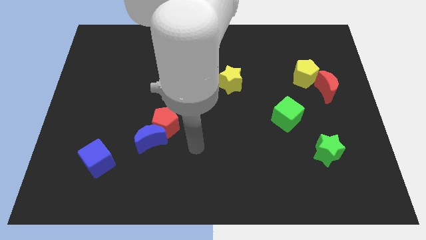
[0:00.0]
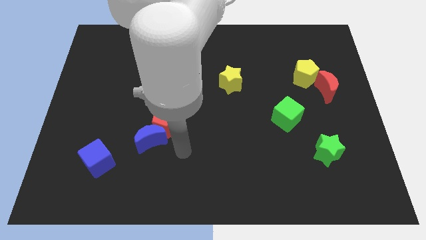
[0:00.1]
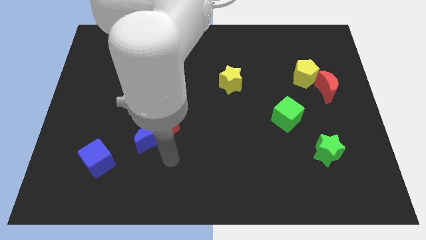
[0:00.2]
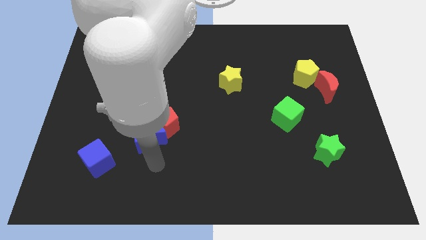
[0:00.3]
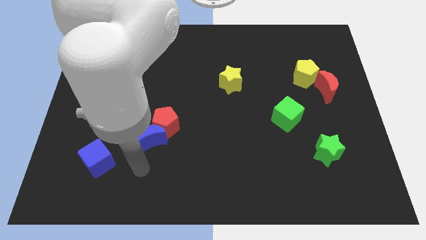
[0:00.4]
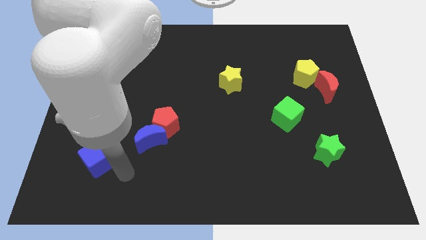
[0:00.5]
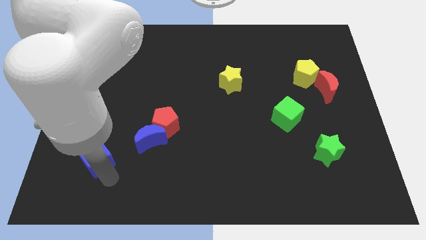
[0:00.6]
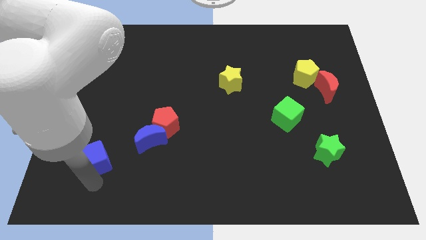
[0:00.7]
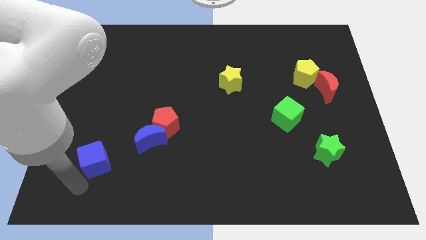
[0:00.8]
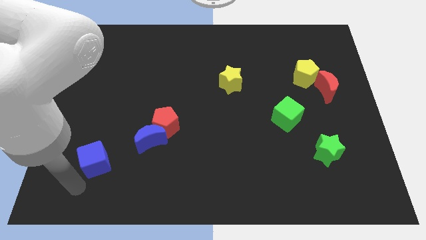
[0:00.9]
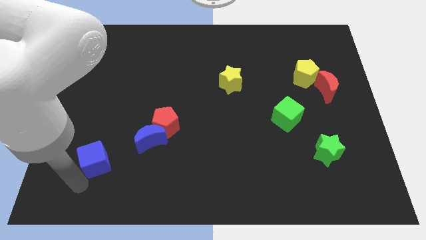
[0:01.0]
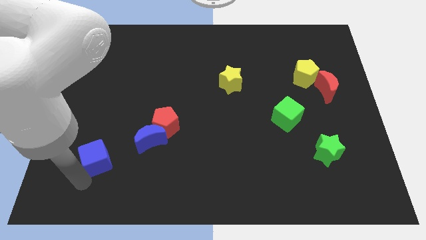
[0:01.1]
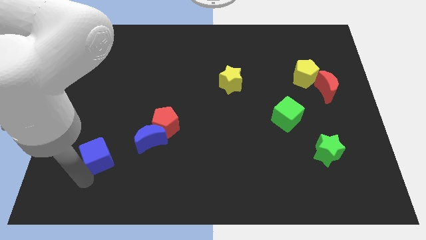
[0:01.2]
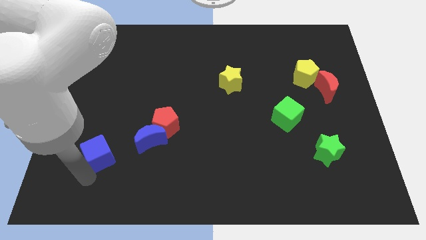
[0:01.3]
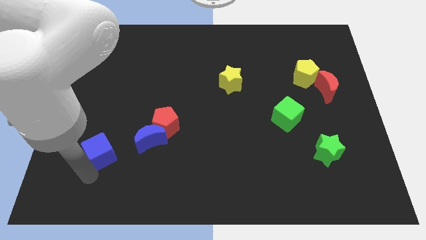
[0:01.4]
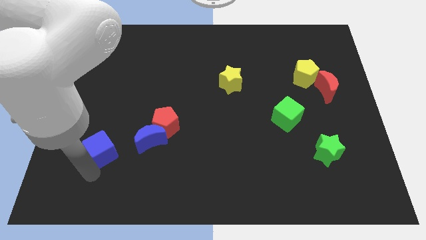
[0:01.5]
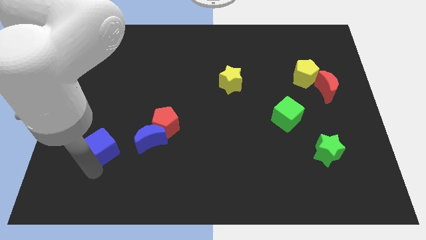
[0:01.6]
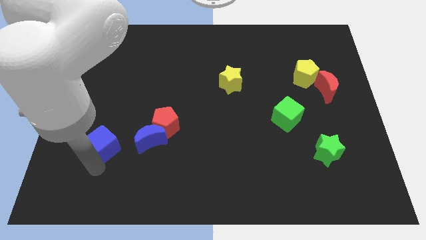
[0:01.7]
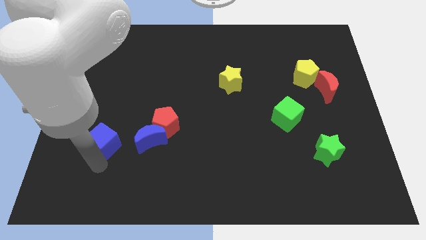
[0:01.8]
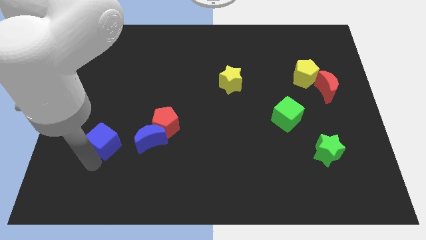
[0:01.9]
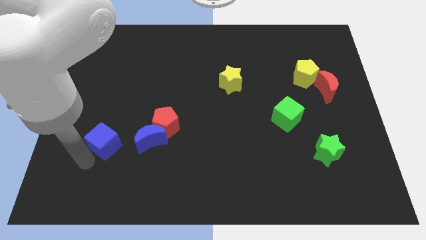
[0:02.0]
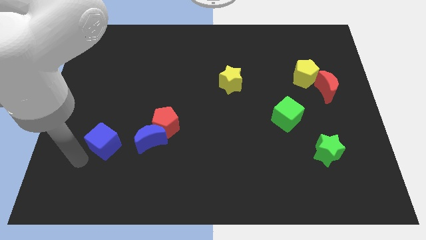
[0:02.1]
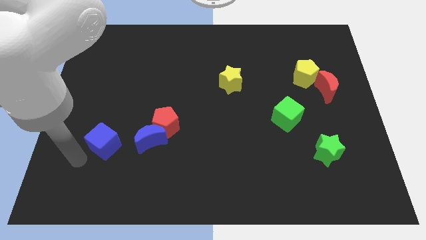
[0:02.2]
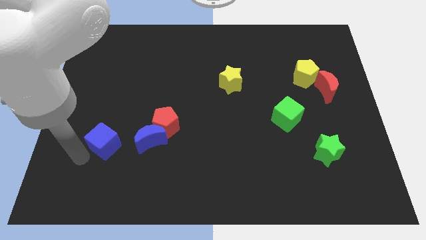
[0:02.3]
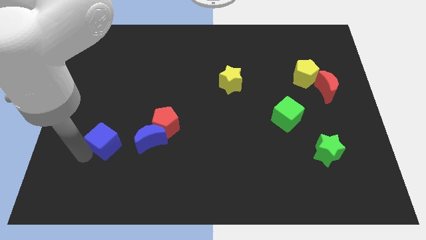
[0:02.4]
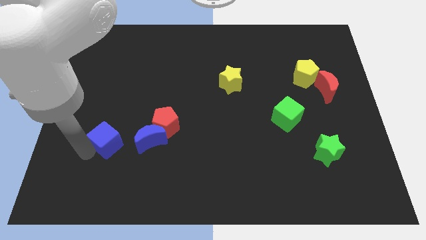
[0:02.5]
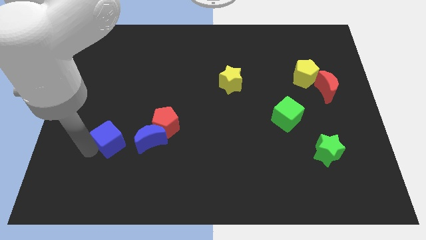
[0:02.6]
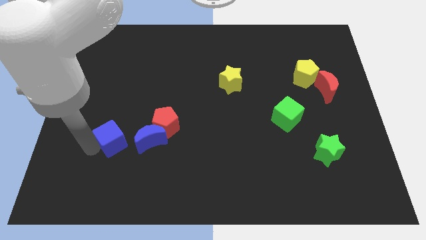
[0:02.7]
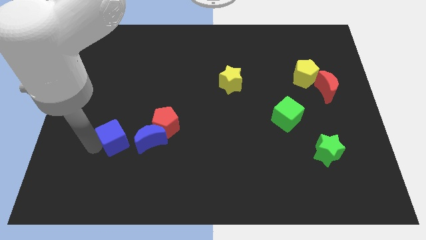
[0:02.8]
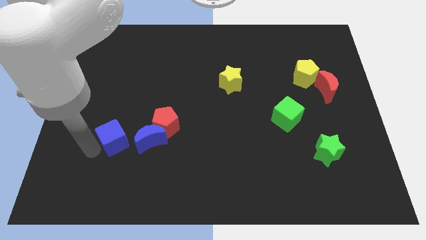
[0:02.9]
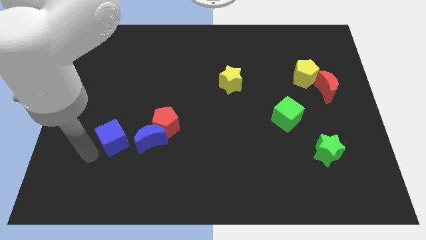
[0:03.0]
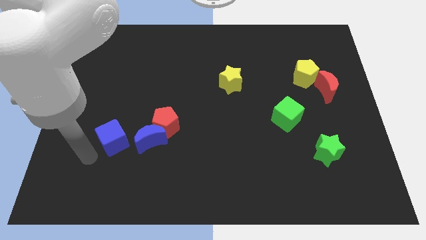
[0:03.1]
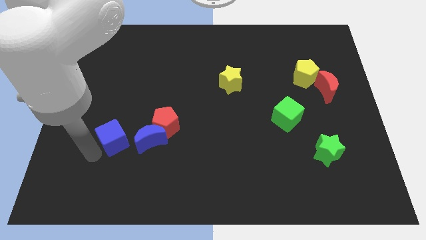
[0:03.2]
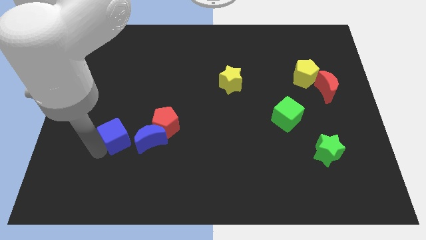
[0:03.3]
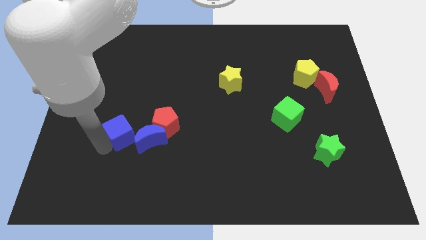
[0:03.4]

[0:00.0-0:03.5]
slightly push the blue cube up and then to the right

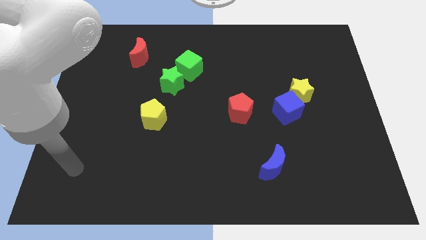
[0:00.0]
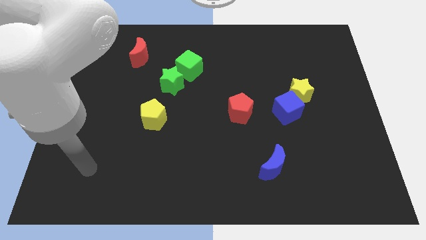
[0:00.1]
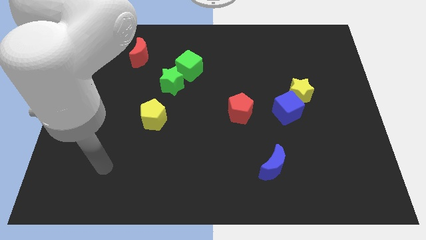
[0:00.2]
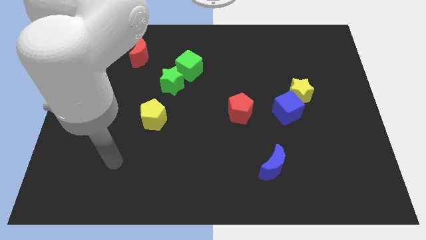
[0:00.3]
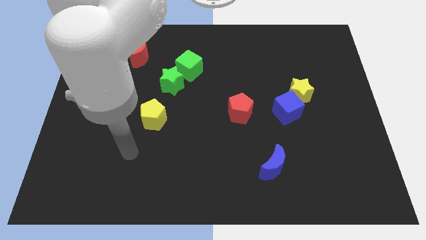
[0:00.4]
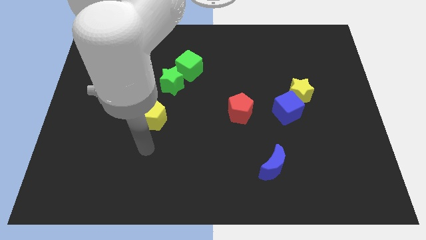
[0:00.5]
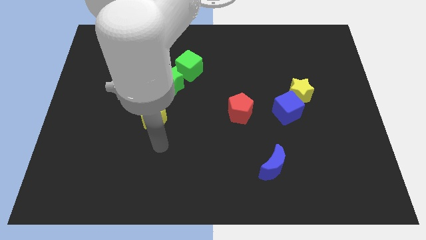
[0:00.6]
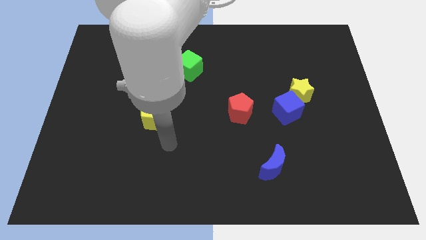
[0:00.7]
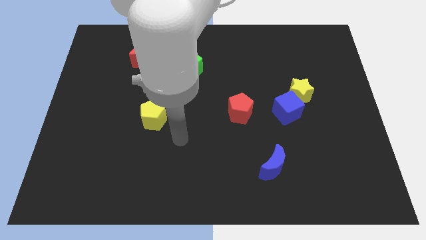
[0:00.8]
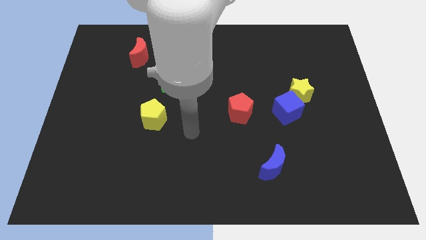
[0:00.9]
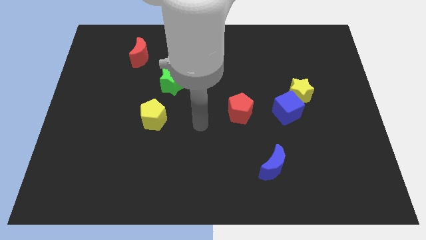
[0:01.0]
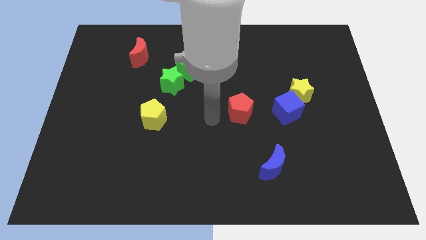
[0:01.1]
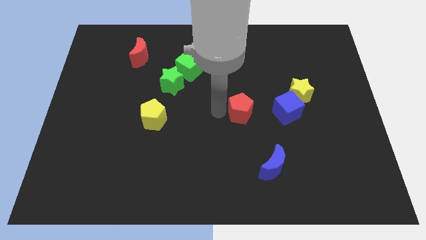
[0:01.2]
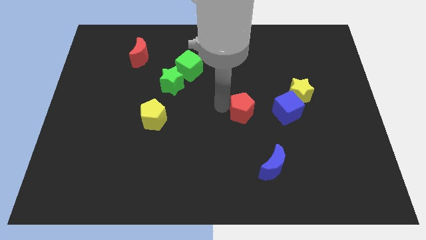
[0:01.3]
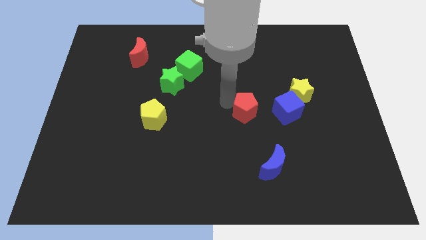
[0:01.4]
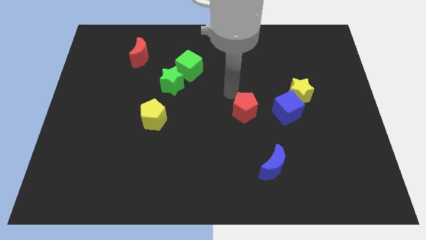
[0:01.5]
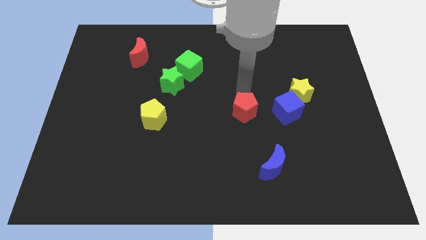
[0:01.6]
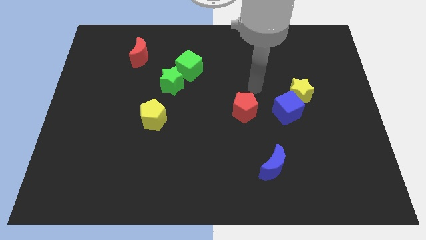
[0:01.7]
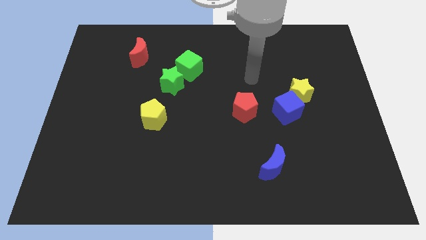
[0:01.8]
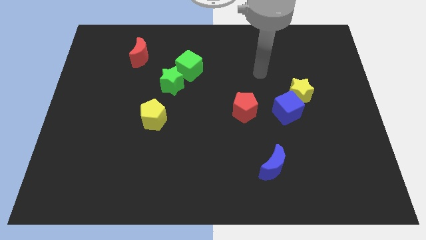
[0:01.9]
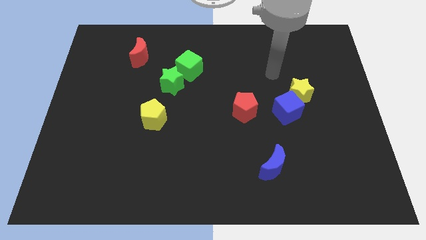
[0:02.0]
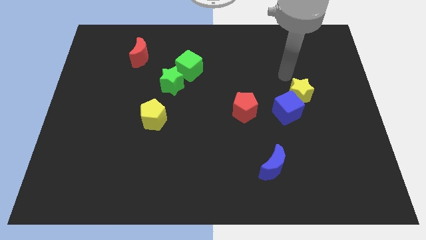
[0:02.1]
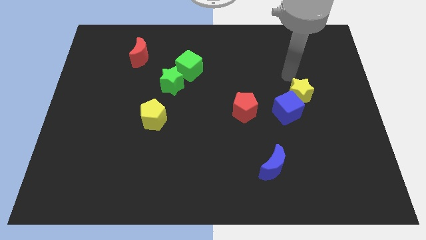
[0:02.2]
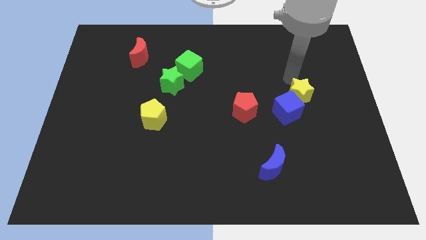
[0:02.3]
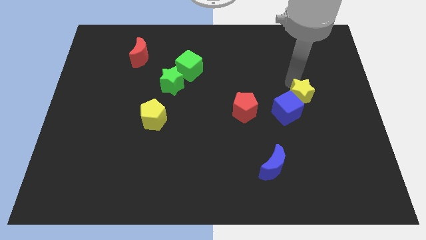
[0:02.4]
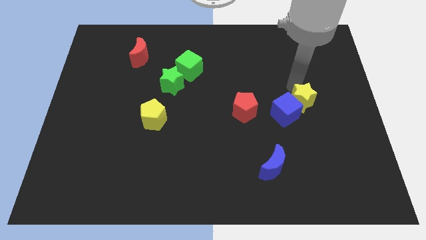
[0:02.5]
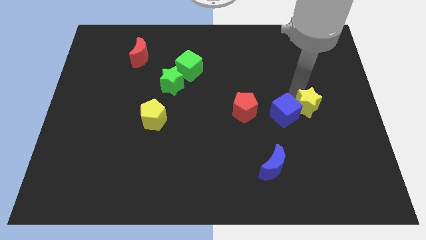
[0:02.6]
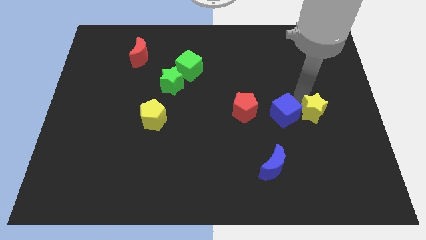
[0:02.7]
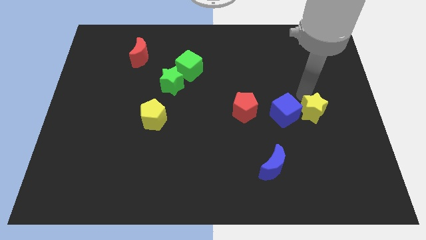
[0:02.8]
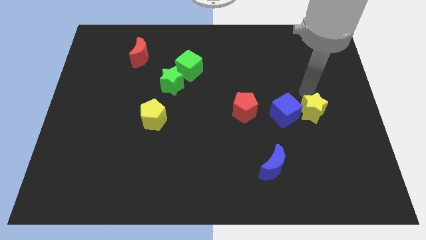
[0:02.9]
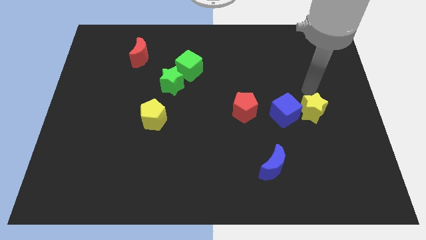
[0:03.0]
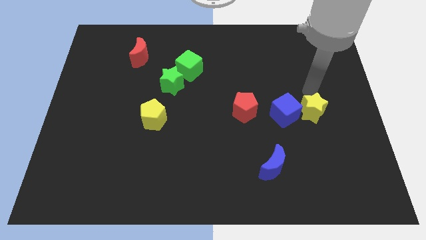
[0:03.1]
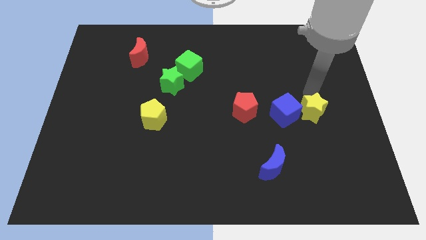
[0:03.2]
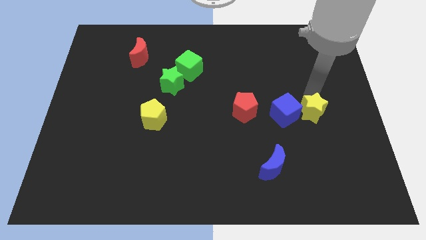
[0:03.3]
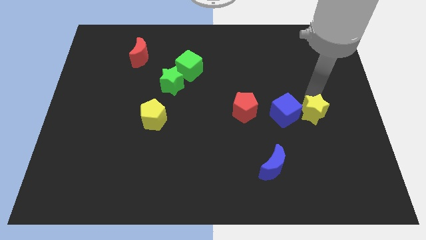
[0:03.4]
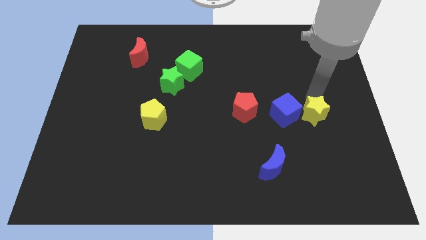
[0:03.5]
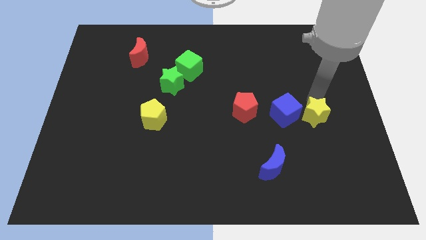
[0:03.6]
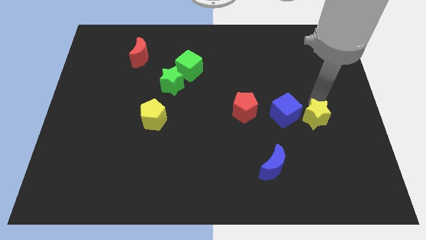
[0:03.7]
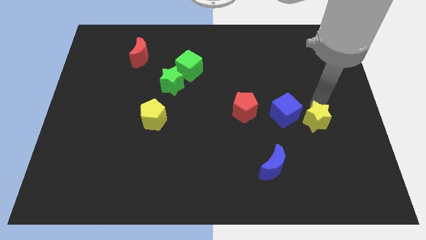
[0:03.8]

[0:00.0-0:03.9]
slightly slide the yellow star down

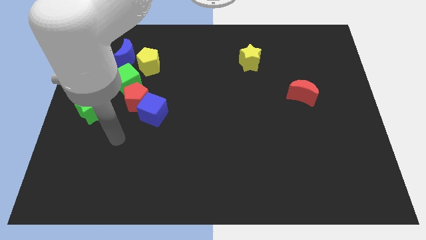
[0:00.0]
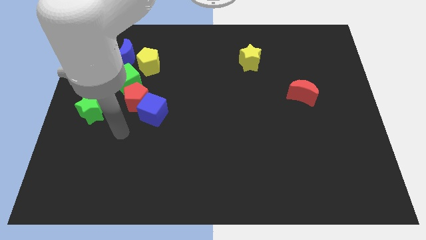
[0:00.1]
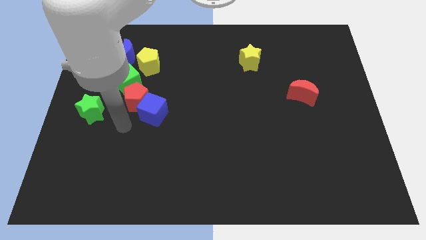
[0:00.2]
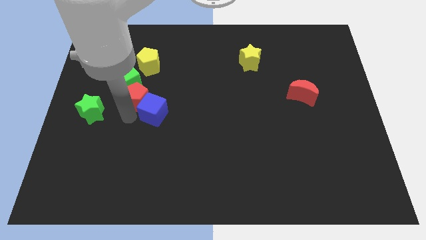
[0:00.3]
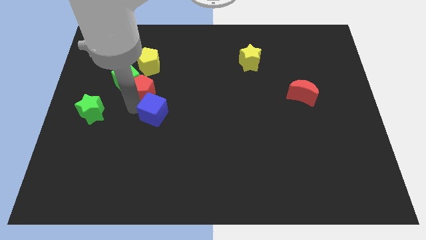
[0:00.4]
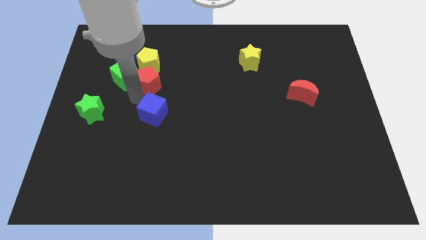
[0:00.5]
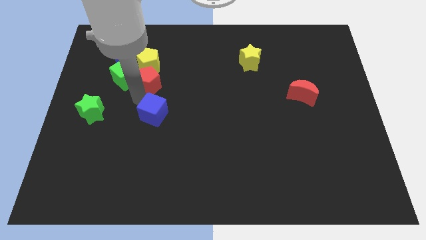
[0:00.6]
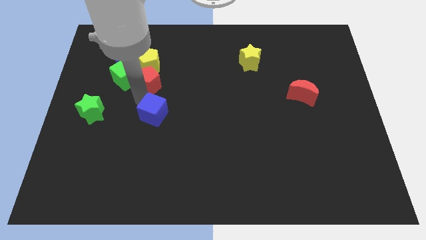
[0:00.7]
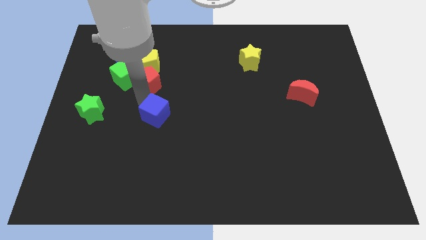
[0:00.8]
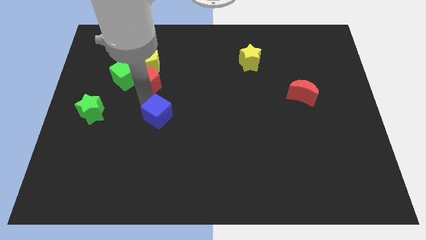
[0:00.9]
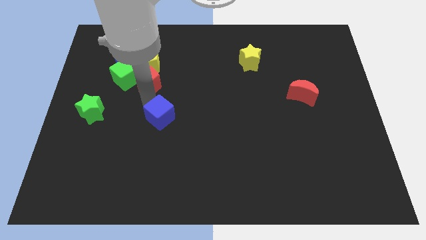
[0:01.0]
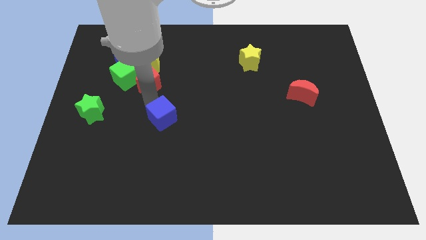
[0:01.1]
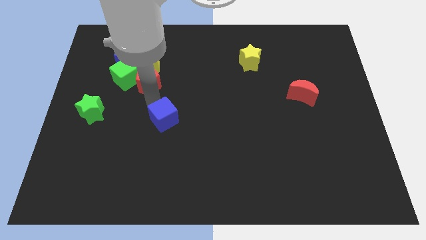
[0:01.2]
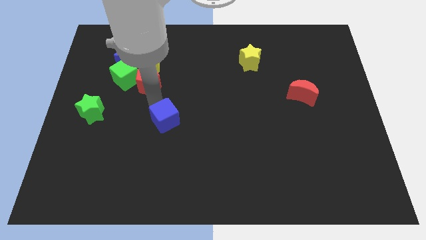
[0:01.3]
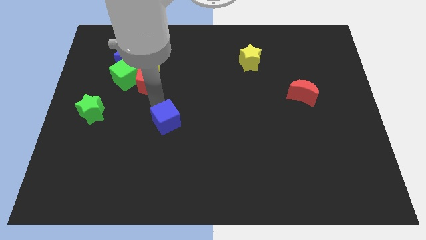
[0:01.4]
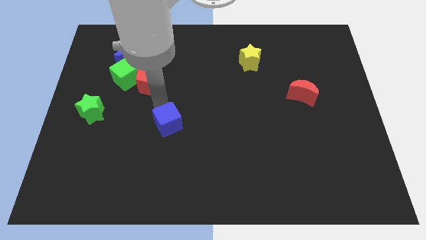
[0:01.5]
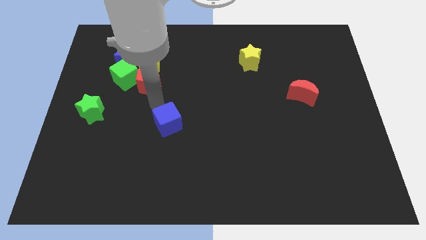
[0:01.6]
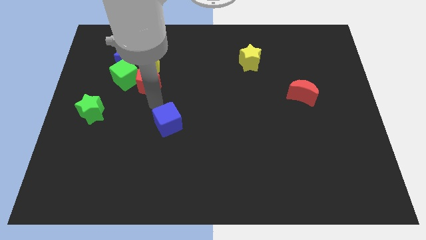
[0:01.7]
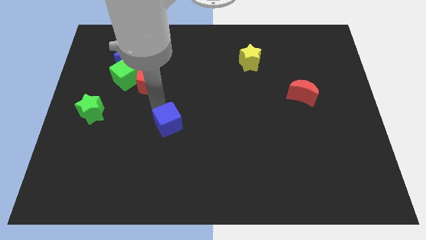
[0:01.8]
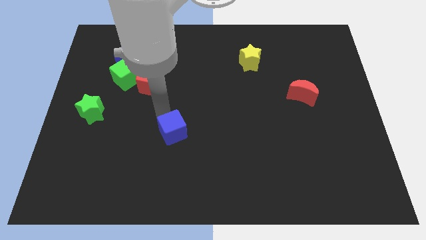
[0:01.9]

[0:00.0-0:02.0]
move the blue cube downwards and right diagonally a bit
